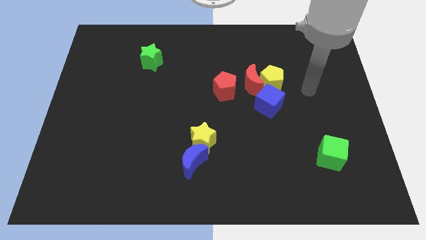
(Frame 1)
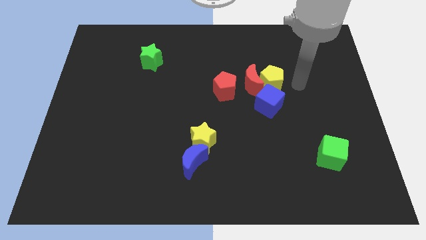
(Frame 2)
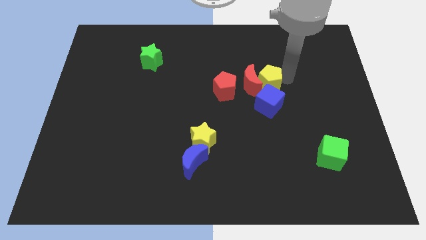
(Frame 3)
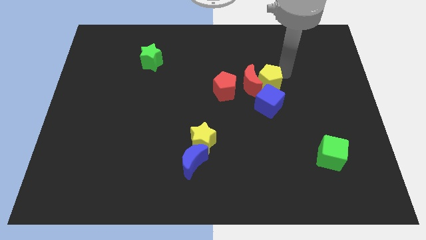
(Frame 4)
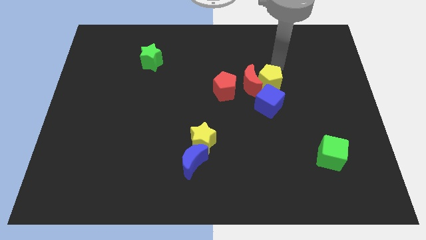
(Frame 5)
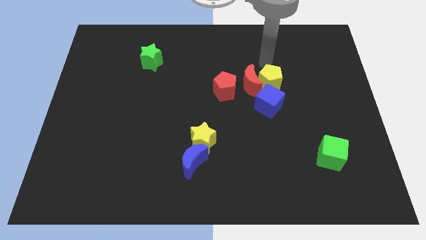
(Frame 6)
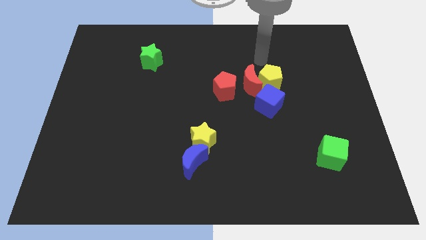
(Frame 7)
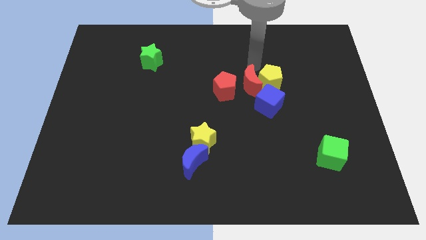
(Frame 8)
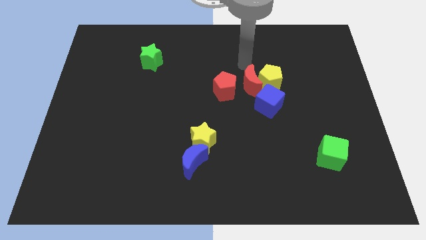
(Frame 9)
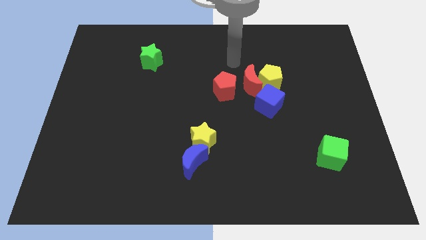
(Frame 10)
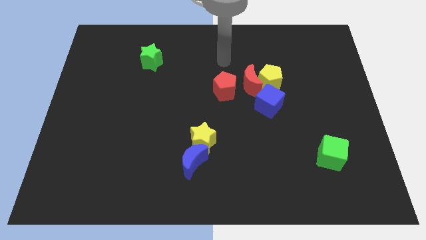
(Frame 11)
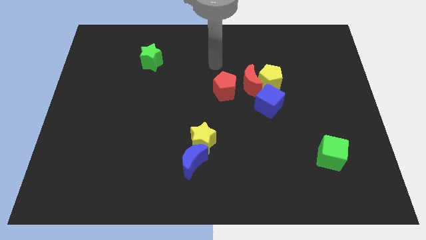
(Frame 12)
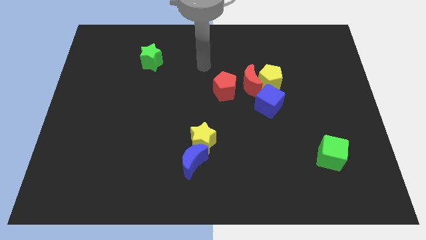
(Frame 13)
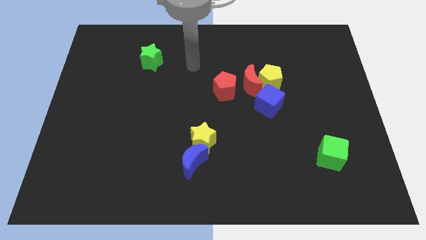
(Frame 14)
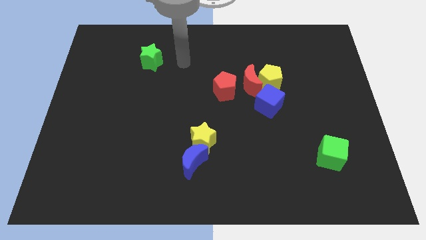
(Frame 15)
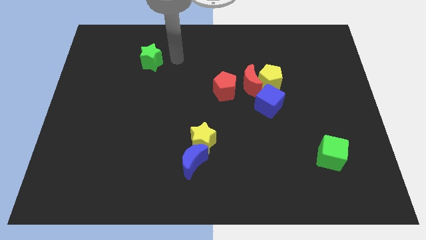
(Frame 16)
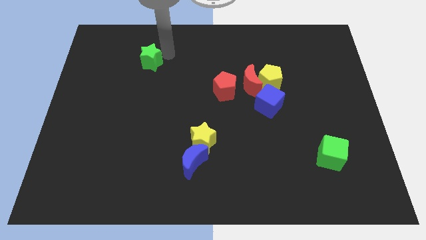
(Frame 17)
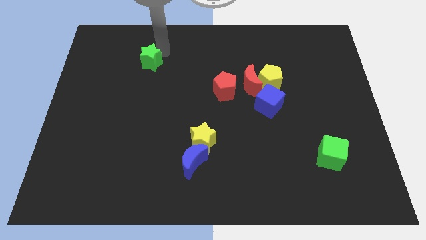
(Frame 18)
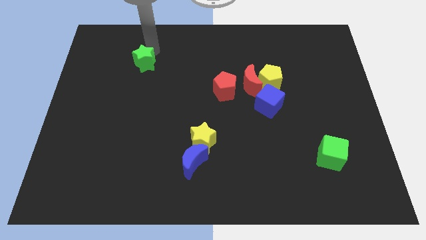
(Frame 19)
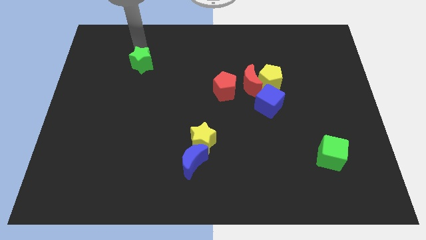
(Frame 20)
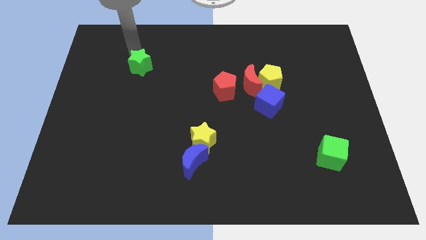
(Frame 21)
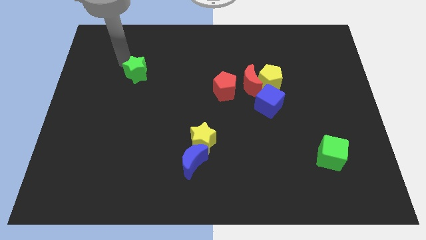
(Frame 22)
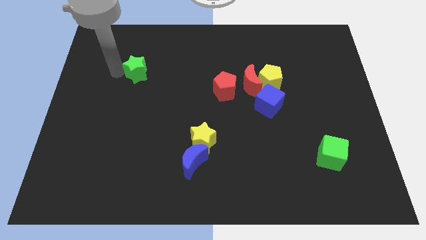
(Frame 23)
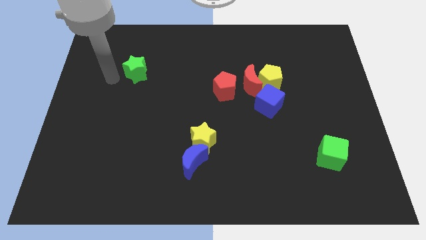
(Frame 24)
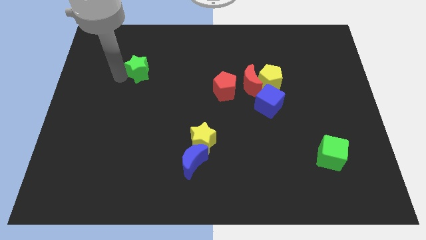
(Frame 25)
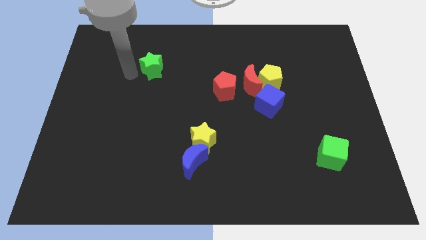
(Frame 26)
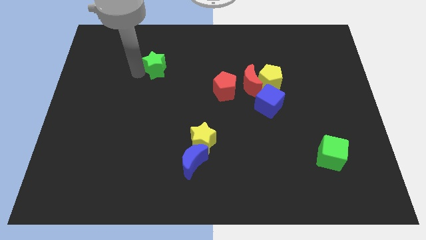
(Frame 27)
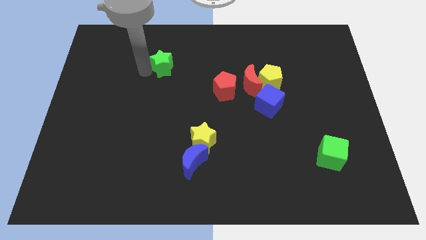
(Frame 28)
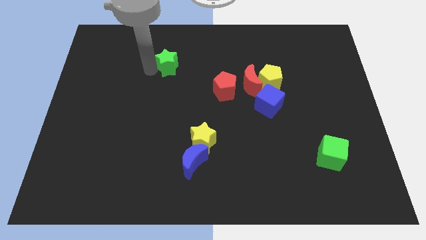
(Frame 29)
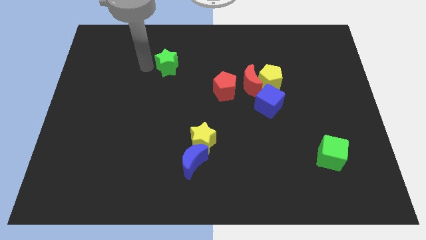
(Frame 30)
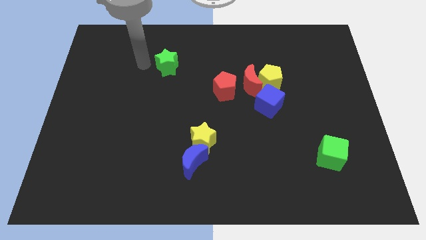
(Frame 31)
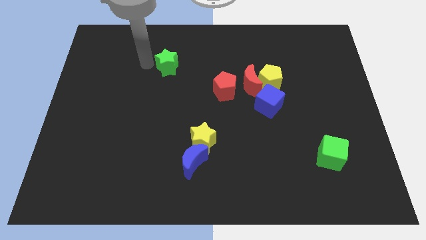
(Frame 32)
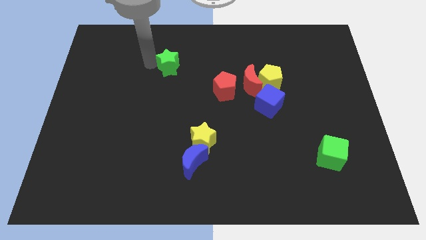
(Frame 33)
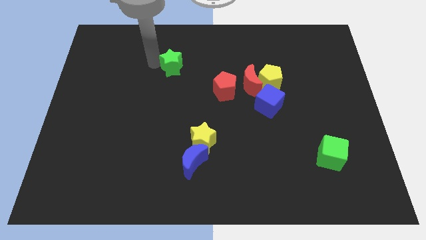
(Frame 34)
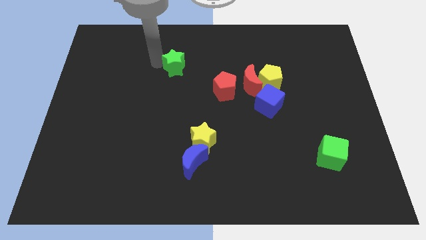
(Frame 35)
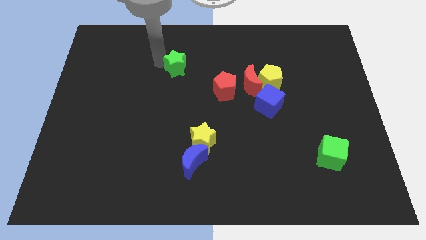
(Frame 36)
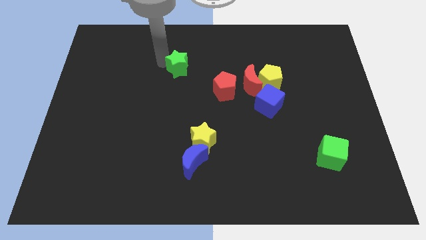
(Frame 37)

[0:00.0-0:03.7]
slightly push the green star right

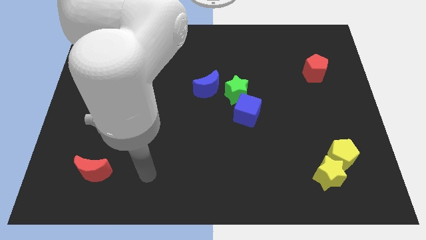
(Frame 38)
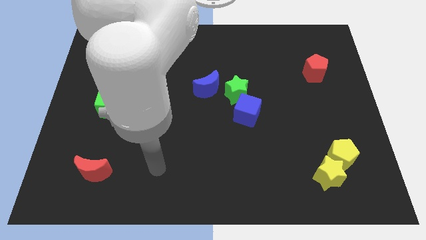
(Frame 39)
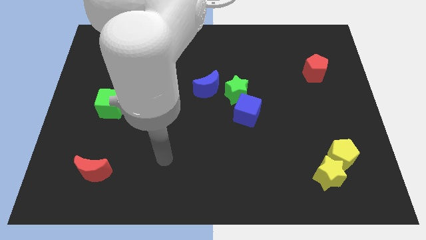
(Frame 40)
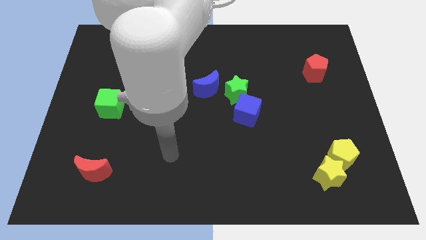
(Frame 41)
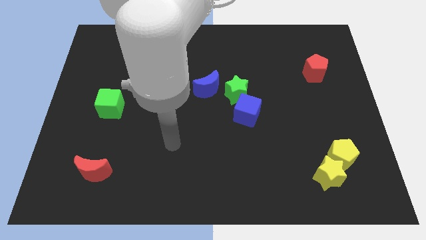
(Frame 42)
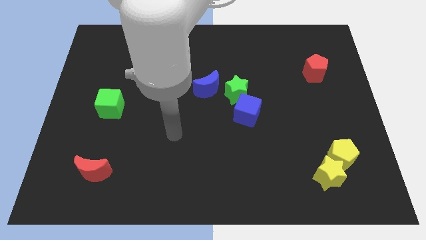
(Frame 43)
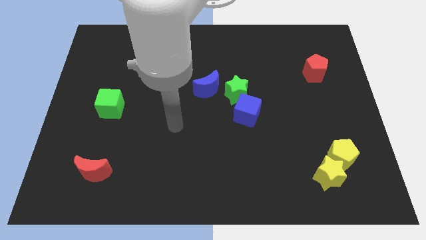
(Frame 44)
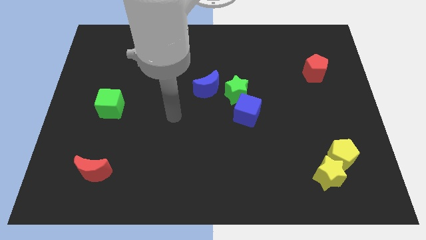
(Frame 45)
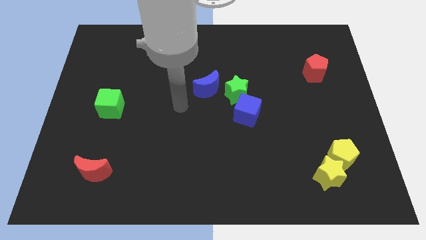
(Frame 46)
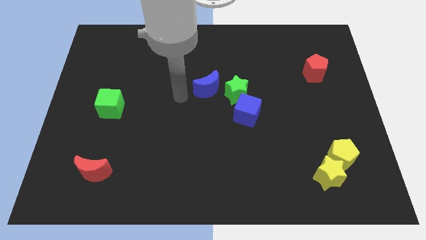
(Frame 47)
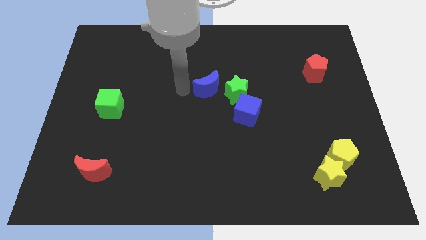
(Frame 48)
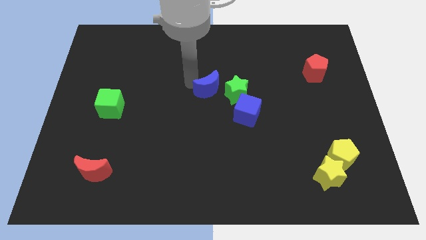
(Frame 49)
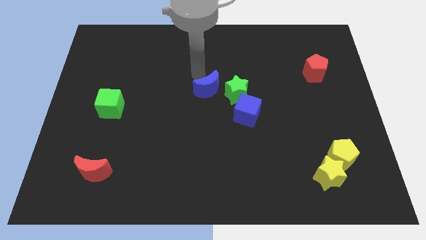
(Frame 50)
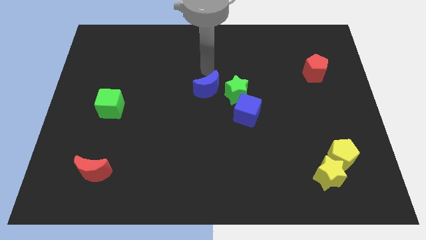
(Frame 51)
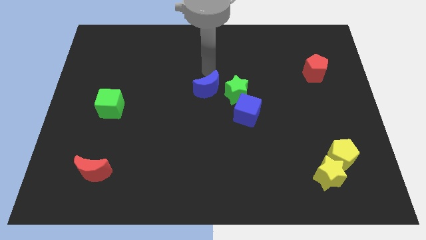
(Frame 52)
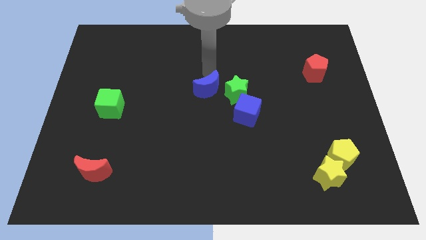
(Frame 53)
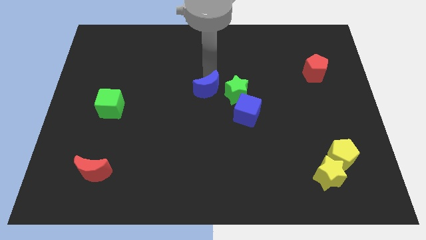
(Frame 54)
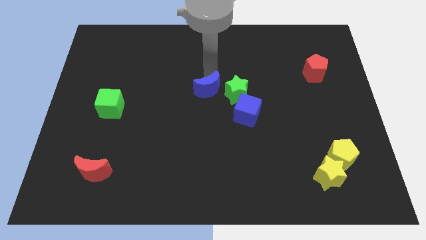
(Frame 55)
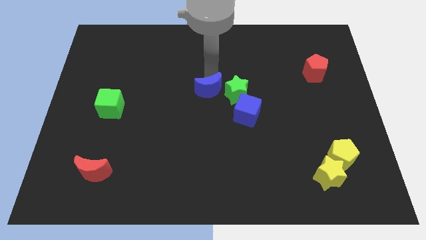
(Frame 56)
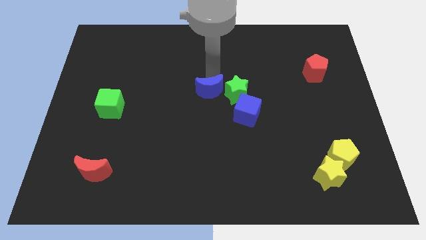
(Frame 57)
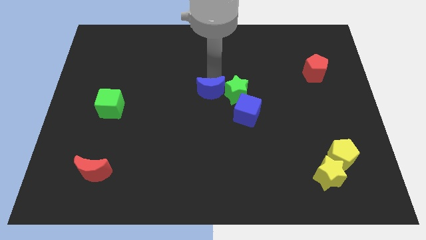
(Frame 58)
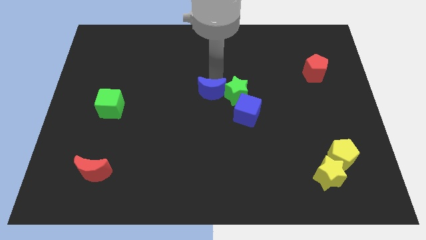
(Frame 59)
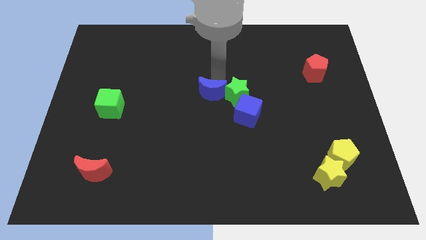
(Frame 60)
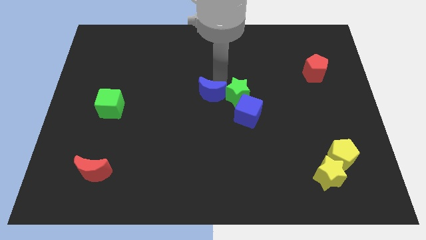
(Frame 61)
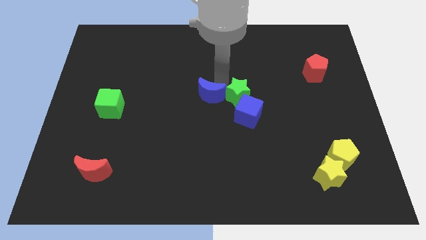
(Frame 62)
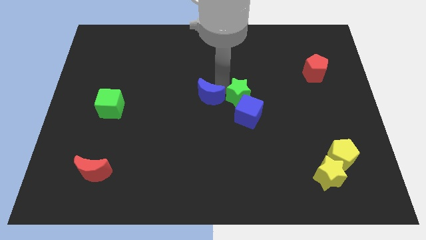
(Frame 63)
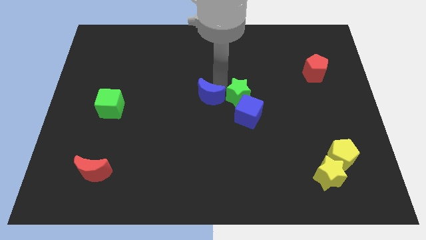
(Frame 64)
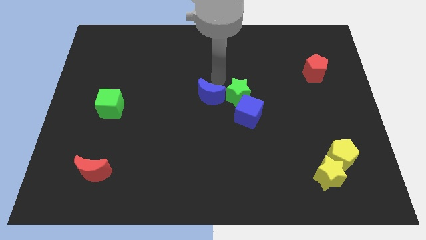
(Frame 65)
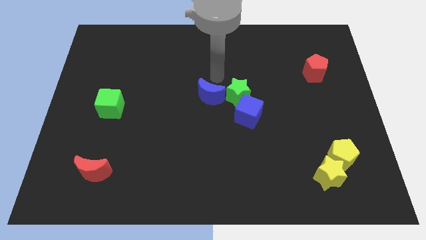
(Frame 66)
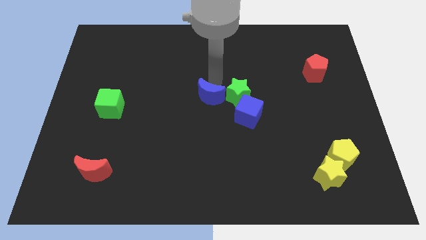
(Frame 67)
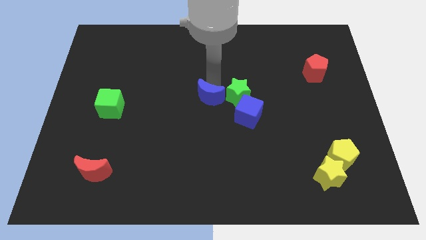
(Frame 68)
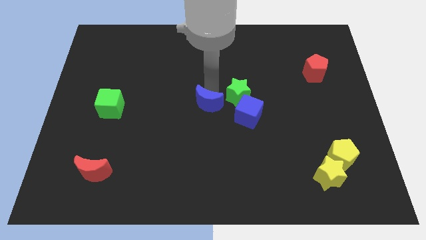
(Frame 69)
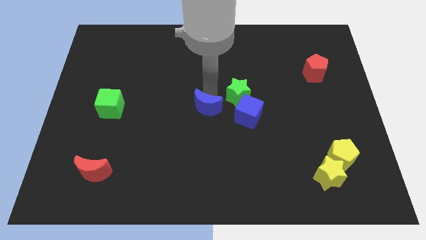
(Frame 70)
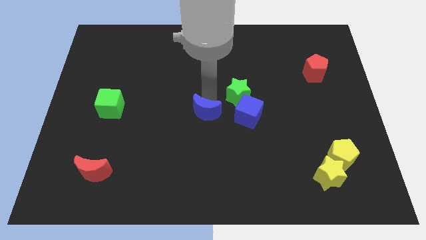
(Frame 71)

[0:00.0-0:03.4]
slide the blue moon down a little bit

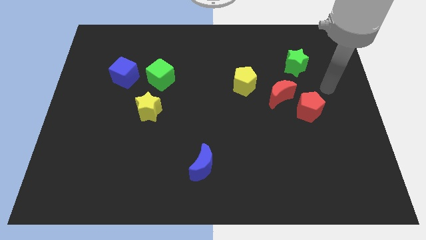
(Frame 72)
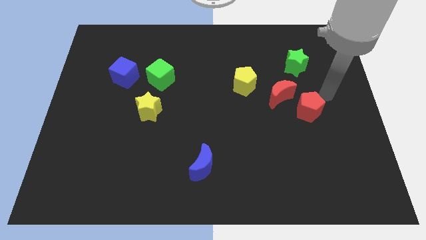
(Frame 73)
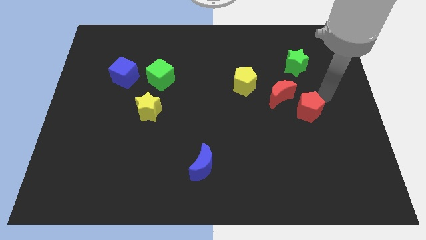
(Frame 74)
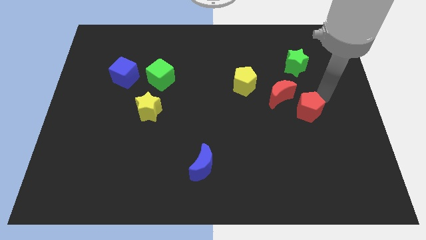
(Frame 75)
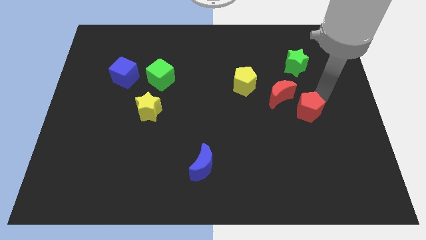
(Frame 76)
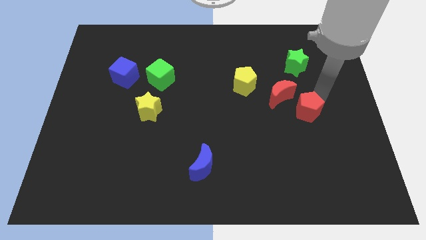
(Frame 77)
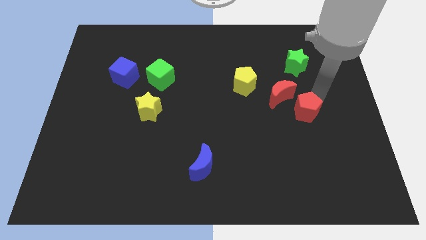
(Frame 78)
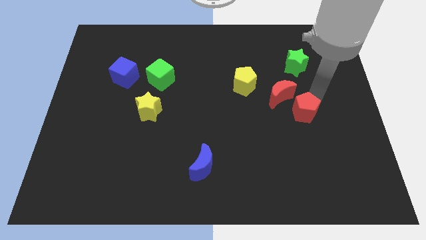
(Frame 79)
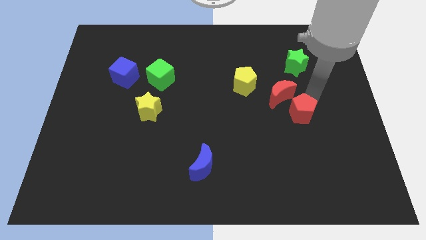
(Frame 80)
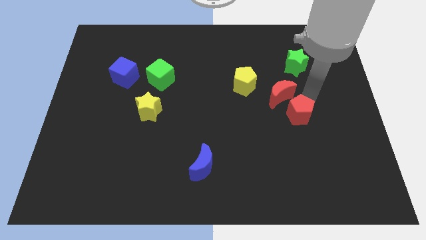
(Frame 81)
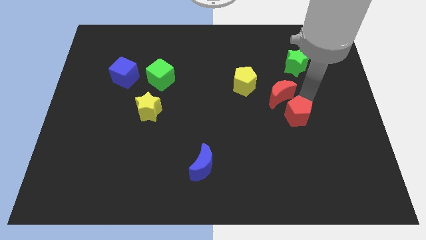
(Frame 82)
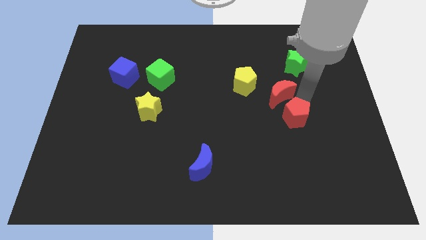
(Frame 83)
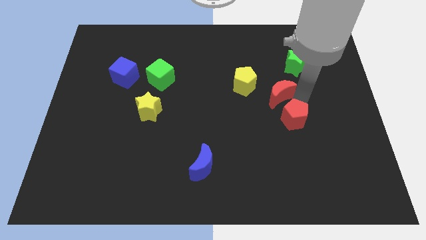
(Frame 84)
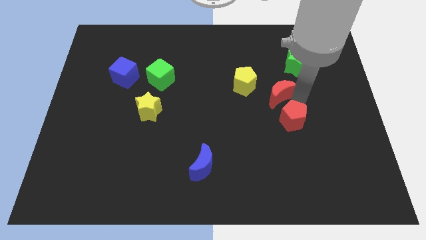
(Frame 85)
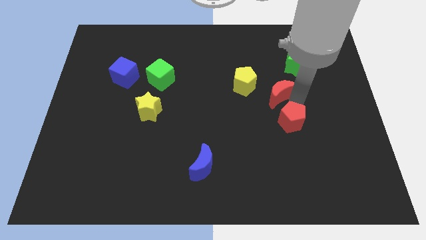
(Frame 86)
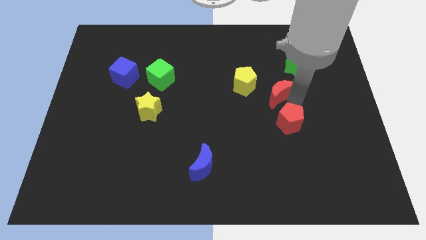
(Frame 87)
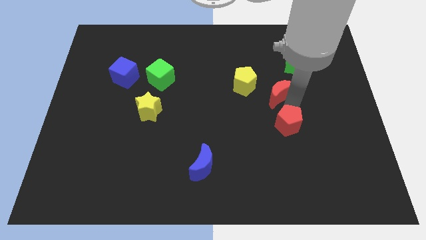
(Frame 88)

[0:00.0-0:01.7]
slightly move the red pentagon down and to the left diagonally
